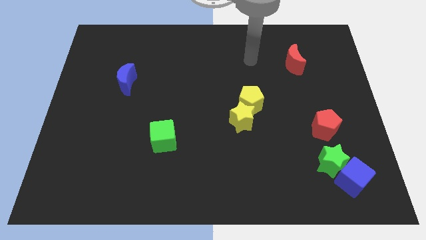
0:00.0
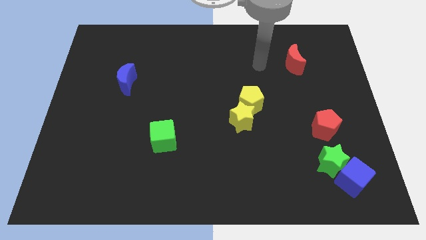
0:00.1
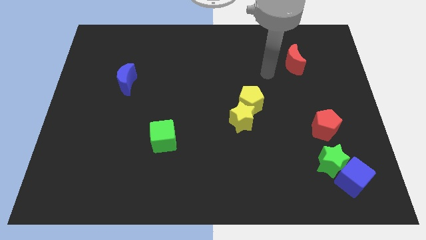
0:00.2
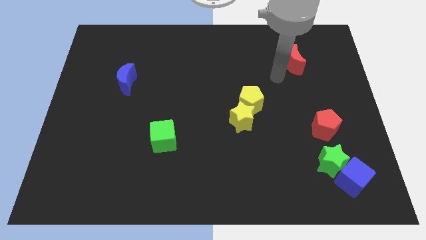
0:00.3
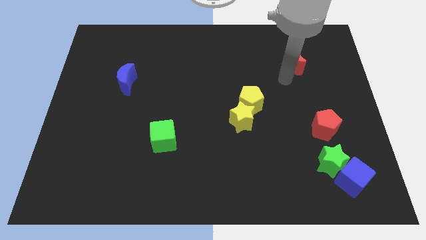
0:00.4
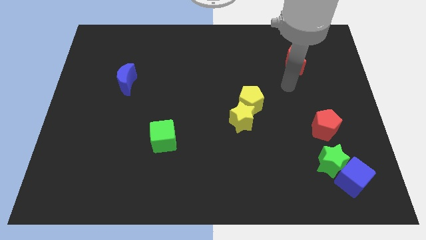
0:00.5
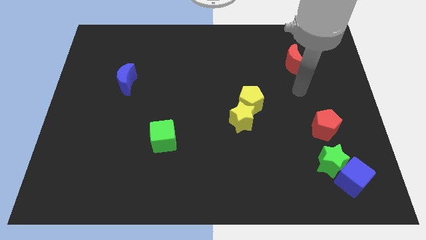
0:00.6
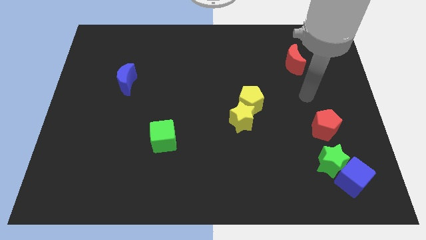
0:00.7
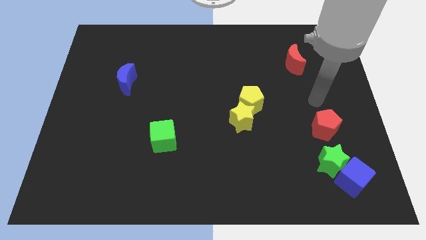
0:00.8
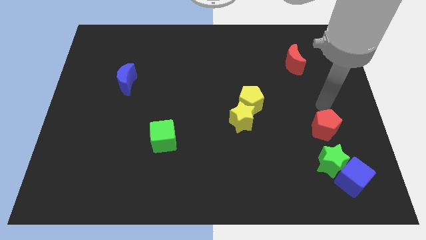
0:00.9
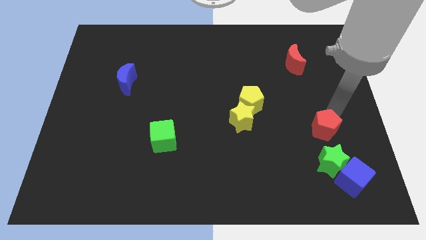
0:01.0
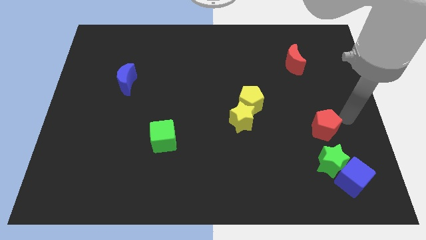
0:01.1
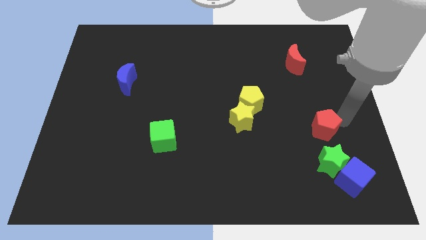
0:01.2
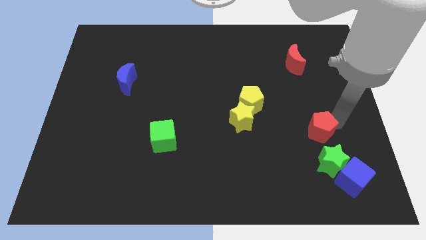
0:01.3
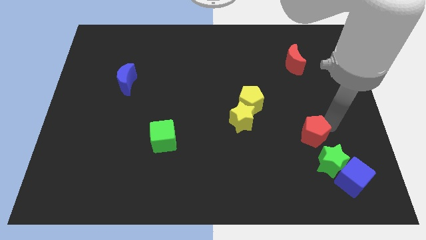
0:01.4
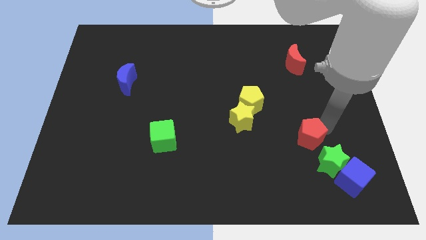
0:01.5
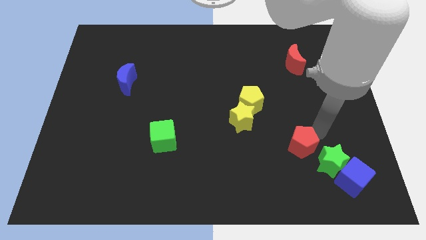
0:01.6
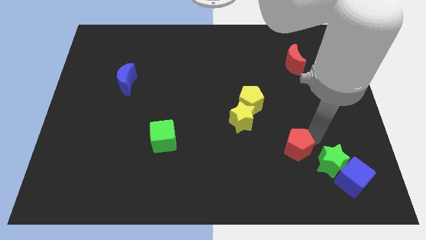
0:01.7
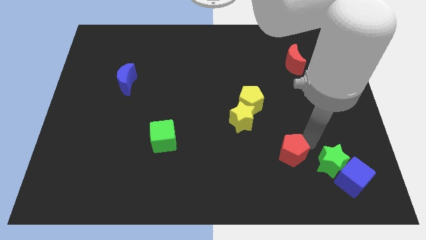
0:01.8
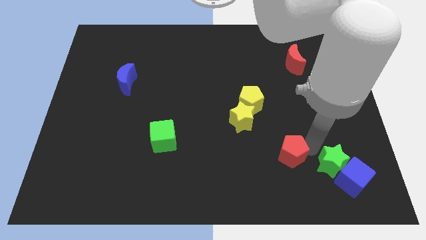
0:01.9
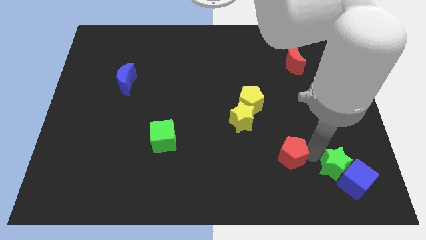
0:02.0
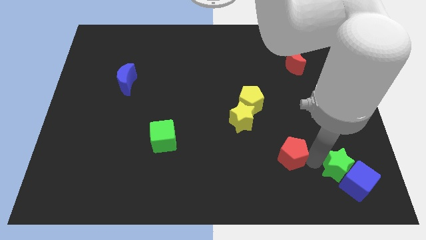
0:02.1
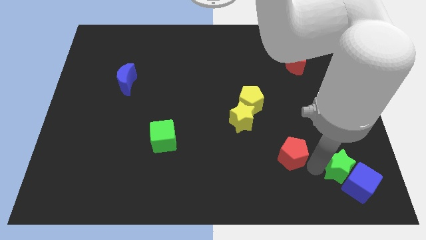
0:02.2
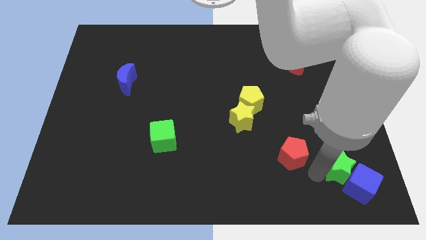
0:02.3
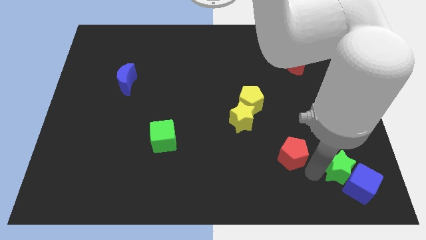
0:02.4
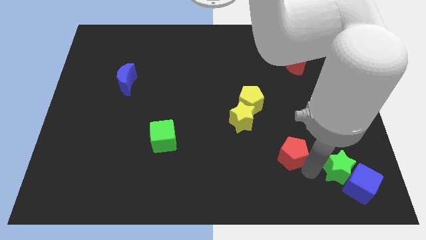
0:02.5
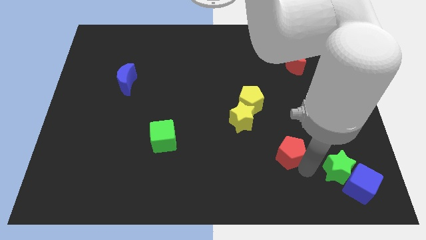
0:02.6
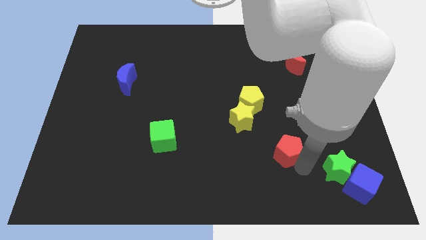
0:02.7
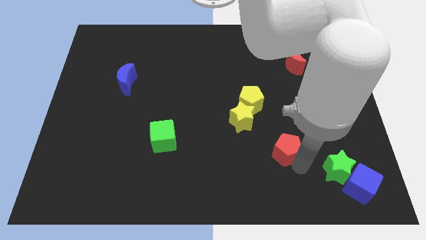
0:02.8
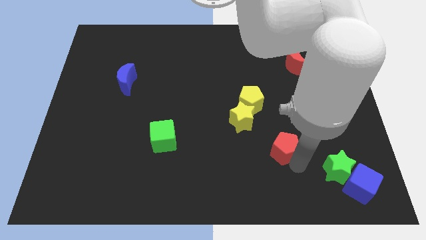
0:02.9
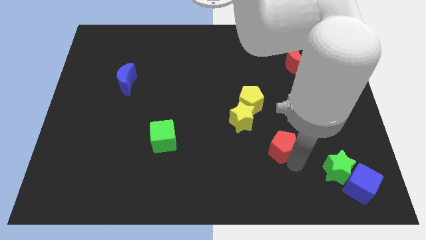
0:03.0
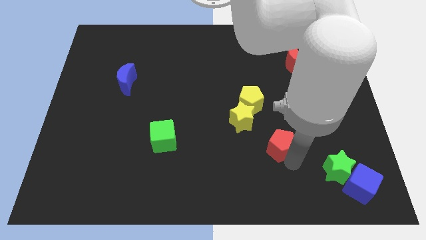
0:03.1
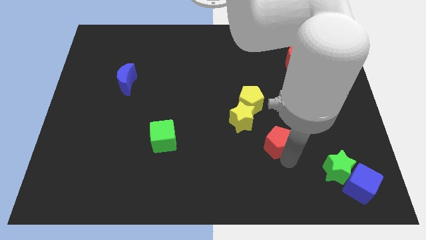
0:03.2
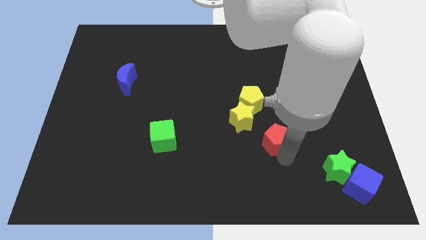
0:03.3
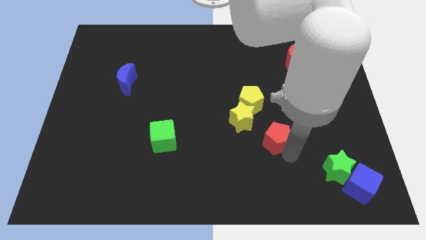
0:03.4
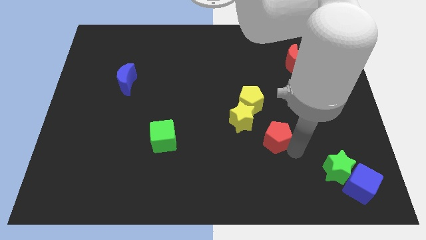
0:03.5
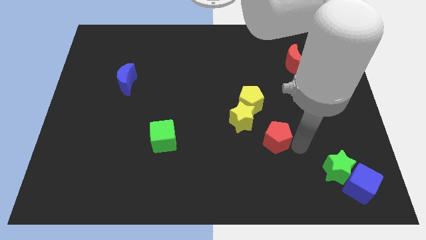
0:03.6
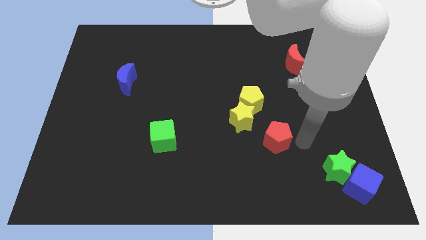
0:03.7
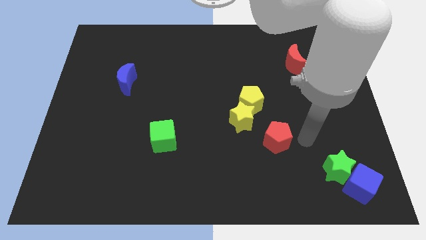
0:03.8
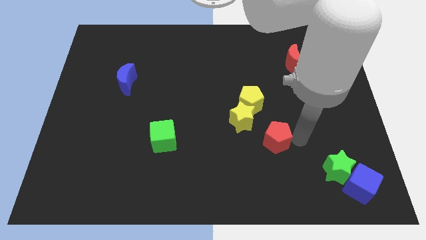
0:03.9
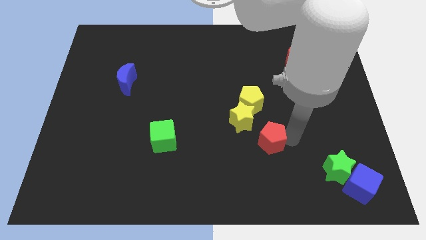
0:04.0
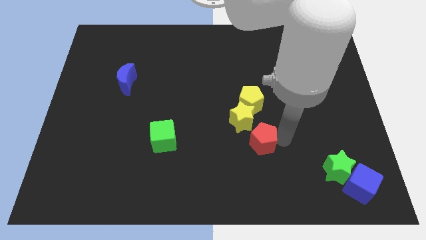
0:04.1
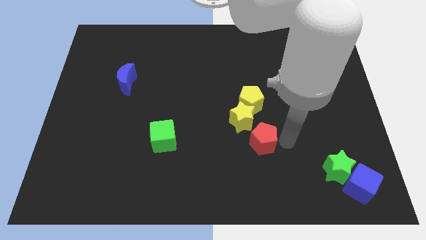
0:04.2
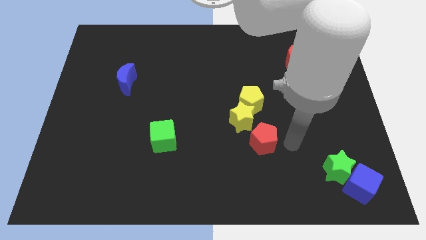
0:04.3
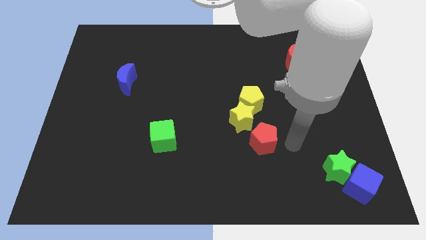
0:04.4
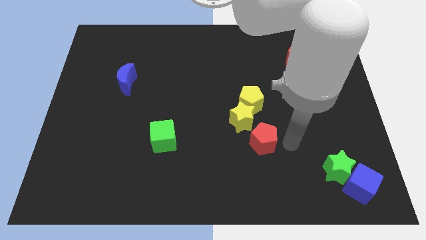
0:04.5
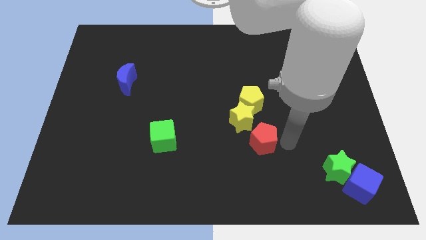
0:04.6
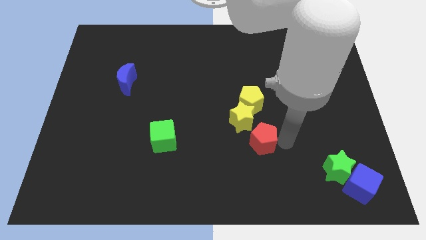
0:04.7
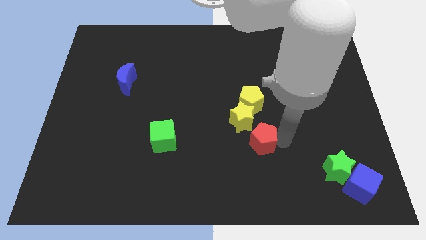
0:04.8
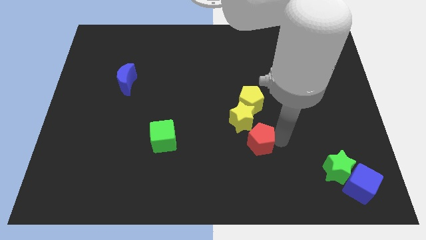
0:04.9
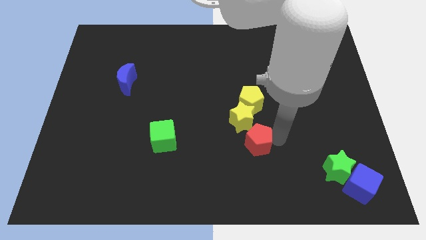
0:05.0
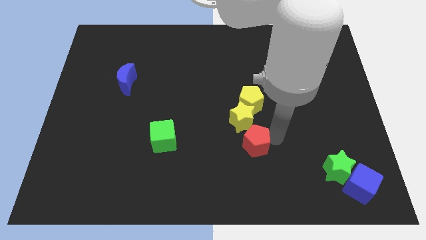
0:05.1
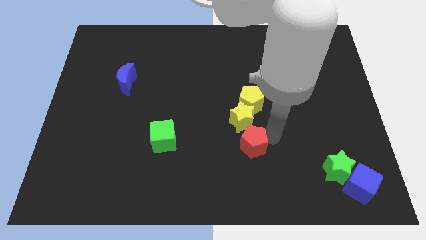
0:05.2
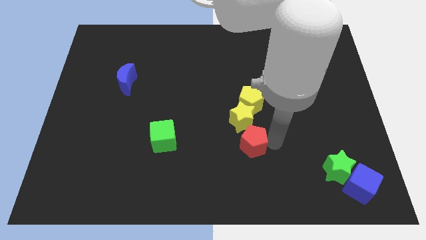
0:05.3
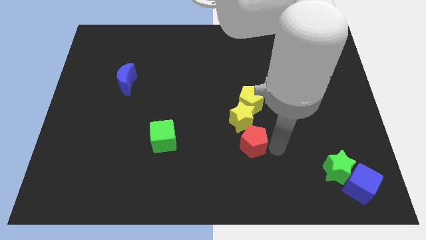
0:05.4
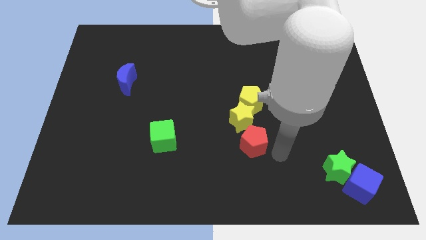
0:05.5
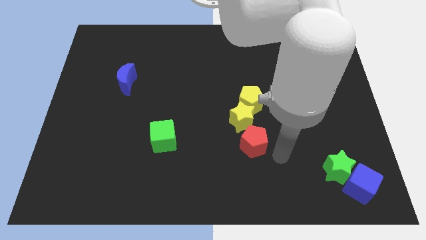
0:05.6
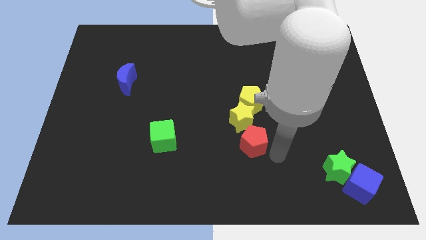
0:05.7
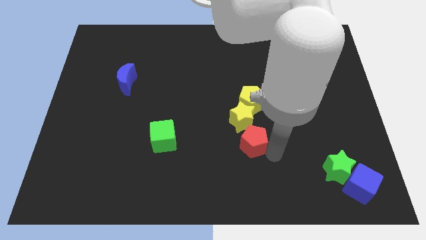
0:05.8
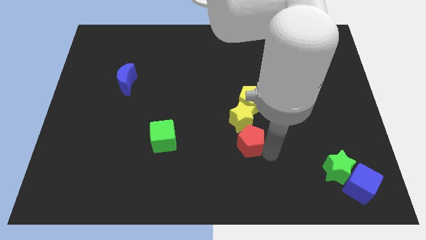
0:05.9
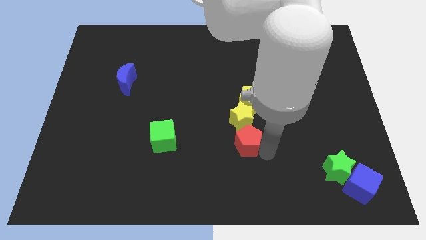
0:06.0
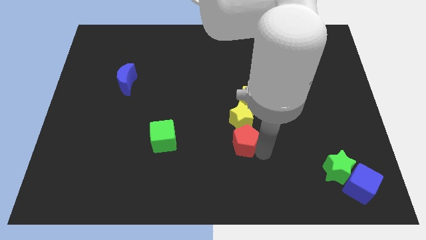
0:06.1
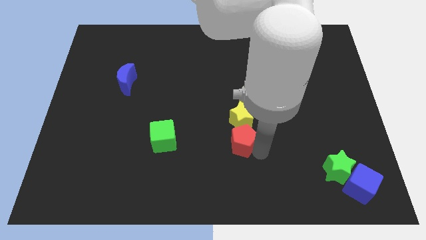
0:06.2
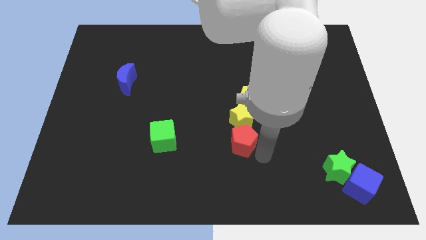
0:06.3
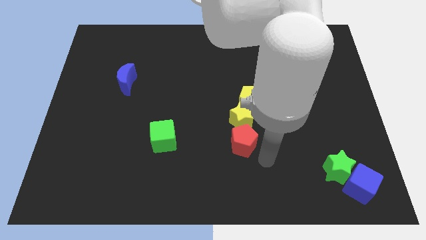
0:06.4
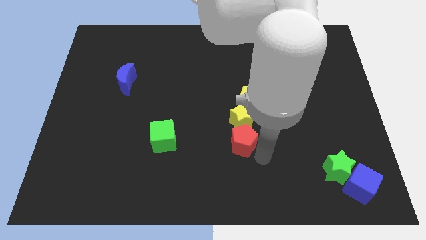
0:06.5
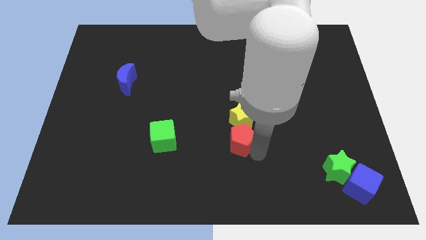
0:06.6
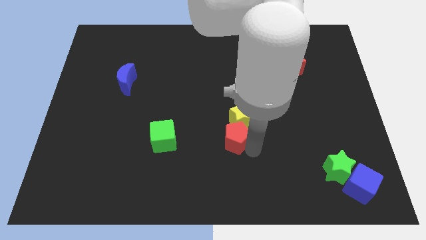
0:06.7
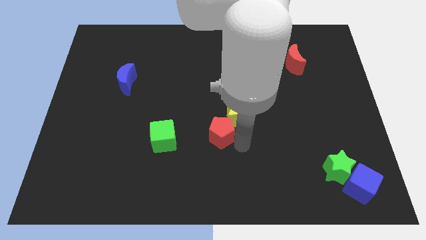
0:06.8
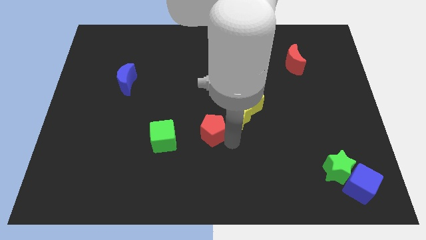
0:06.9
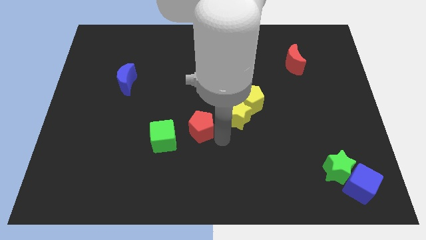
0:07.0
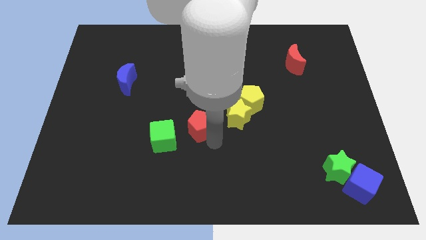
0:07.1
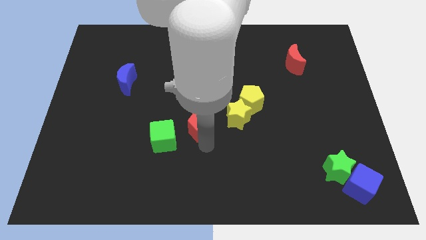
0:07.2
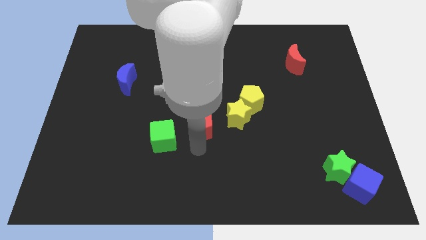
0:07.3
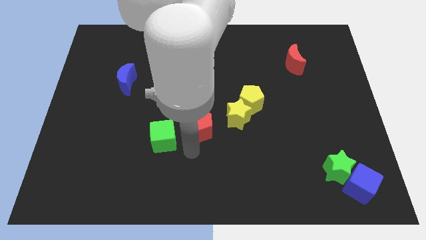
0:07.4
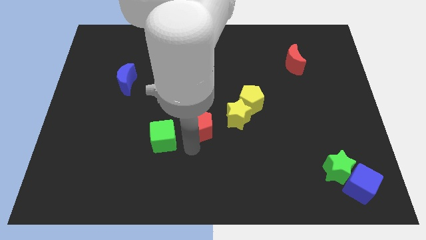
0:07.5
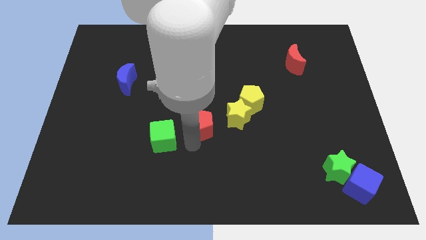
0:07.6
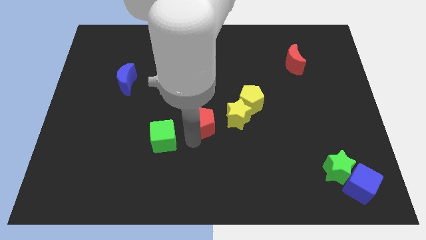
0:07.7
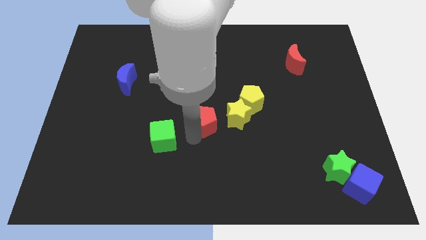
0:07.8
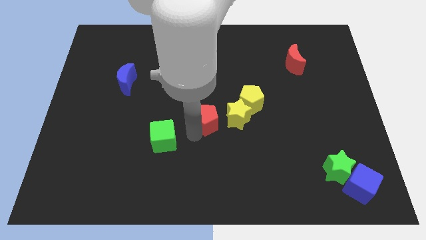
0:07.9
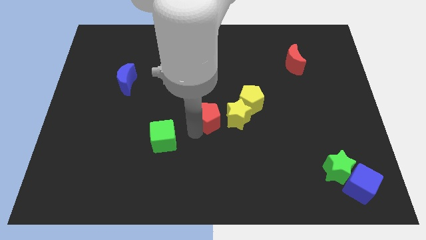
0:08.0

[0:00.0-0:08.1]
slide the red pentagon to the top left of the yellow star

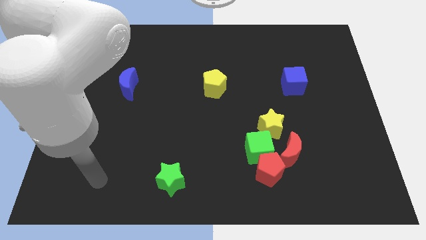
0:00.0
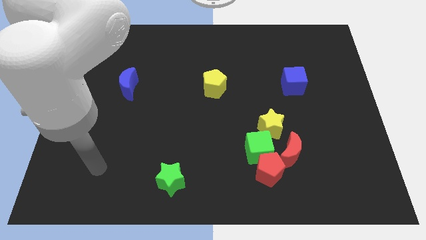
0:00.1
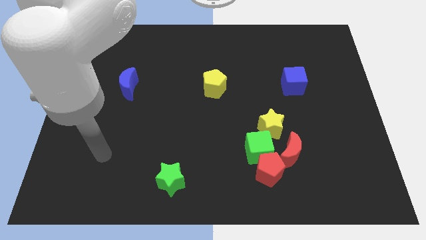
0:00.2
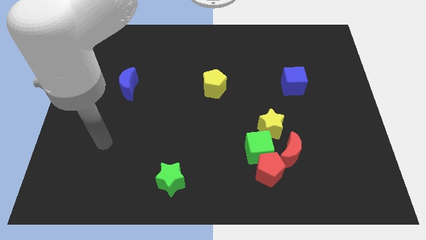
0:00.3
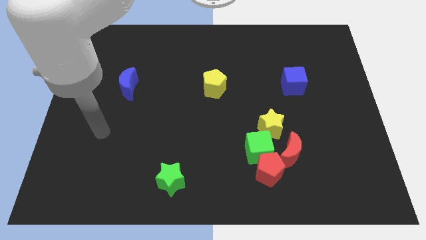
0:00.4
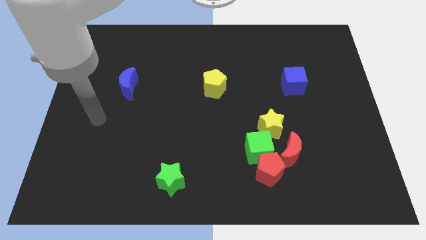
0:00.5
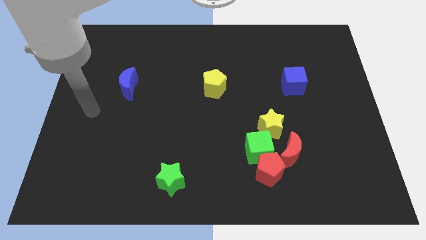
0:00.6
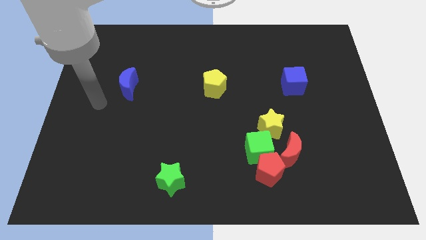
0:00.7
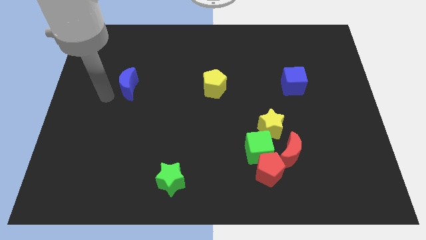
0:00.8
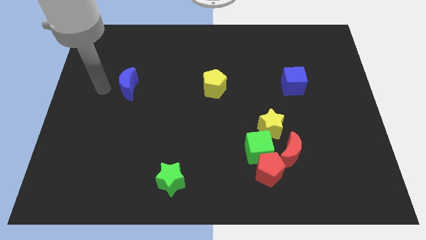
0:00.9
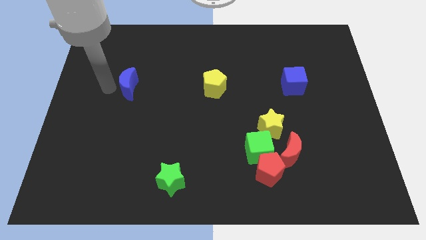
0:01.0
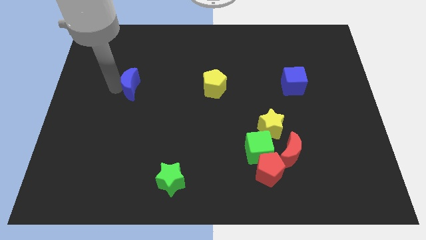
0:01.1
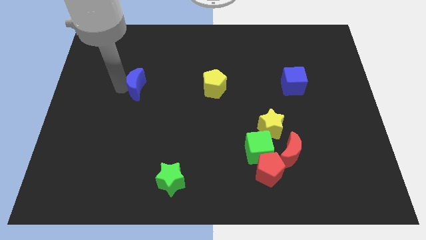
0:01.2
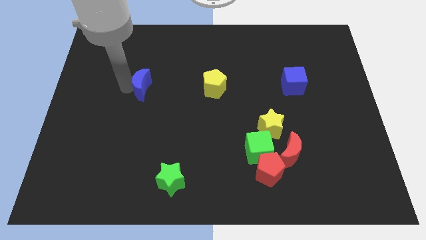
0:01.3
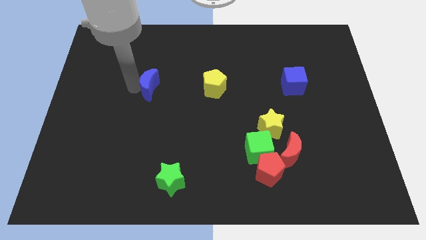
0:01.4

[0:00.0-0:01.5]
put the blue moon to the left of the yellow pentagon
